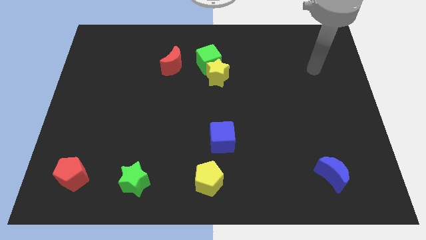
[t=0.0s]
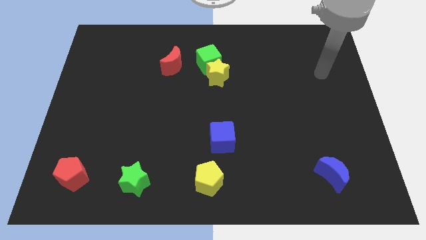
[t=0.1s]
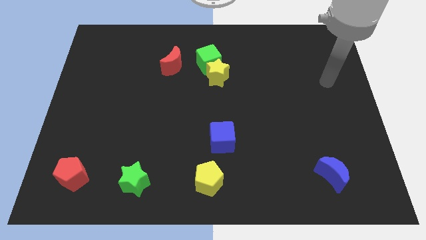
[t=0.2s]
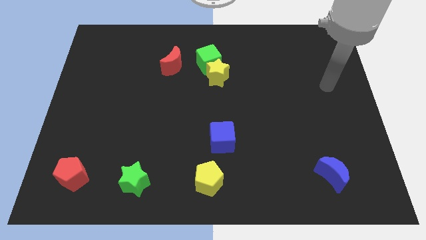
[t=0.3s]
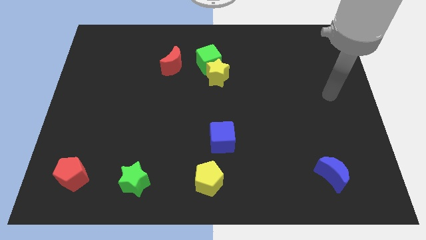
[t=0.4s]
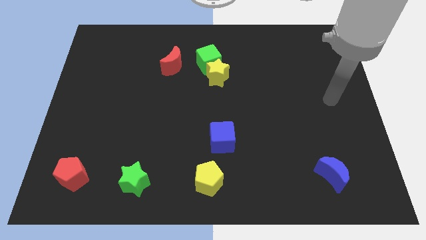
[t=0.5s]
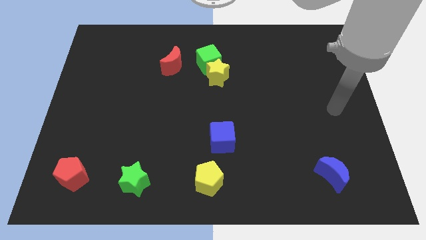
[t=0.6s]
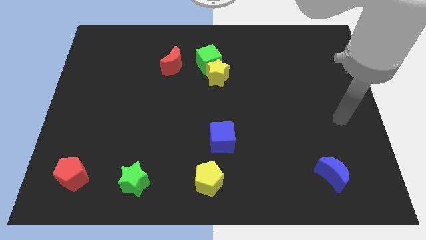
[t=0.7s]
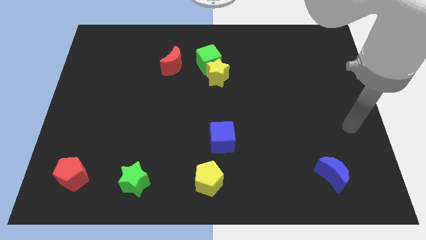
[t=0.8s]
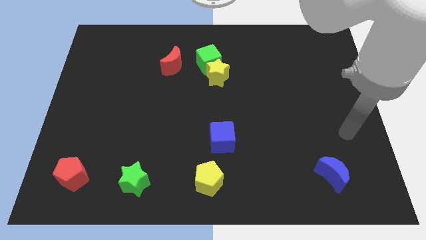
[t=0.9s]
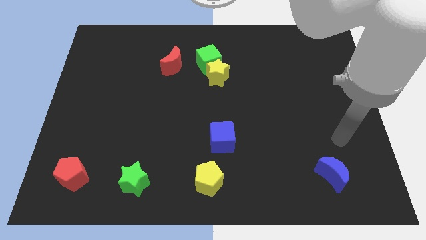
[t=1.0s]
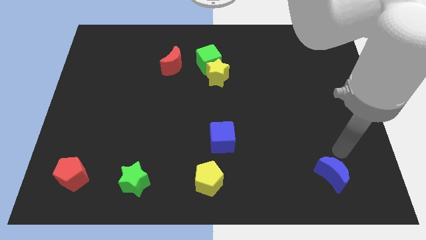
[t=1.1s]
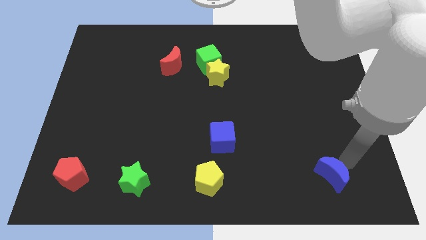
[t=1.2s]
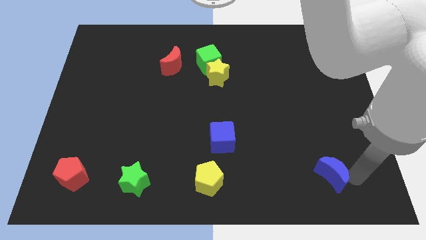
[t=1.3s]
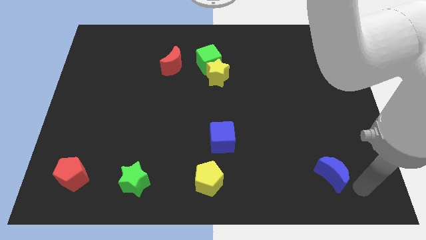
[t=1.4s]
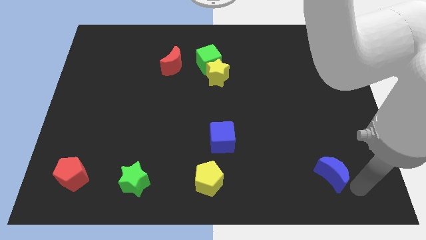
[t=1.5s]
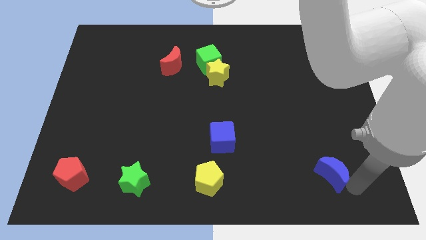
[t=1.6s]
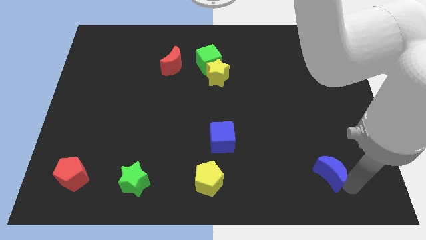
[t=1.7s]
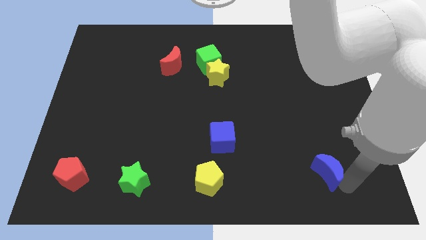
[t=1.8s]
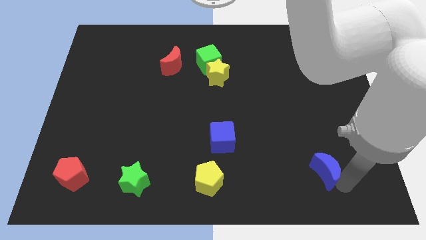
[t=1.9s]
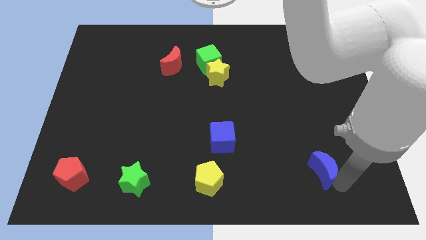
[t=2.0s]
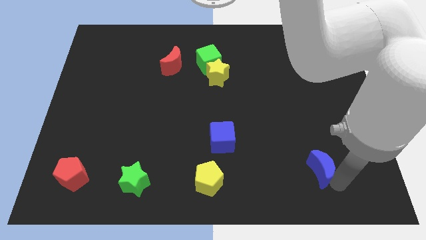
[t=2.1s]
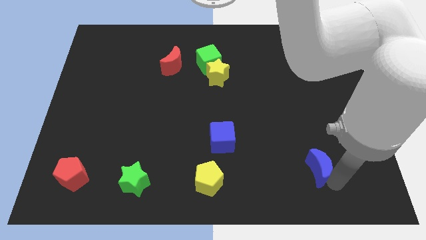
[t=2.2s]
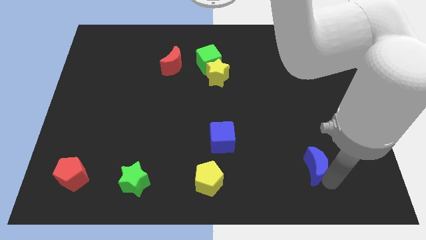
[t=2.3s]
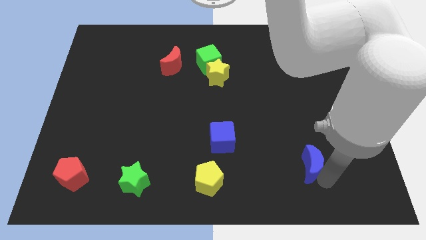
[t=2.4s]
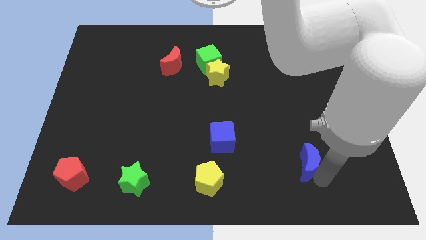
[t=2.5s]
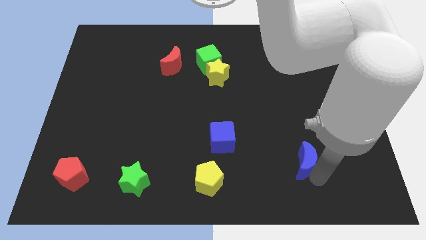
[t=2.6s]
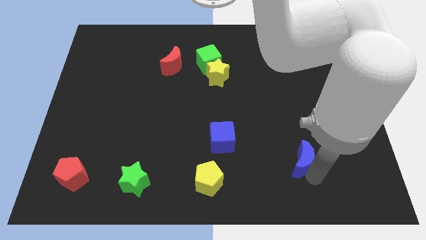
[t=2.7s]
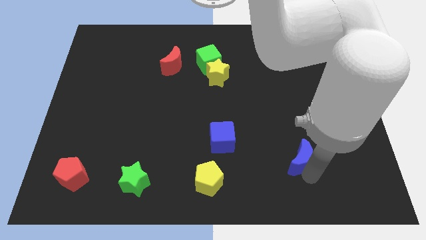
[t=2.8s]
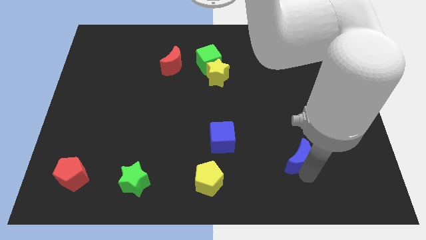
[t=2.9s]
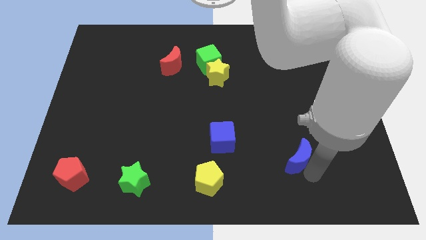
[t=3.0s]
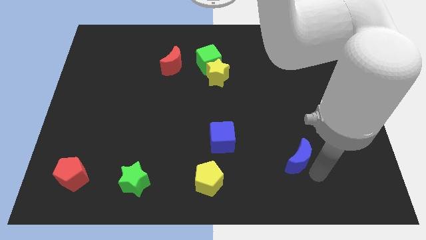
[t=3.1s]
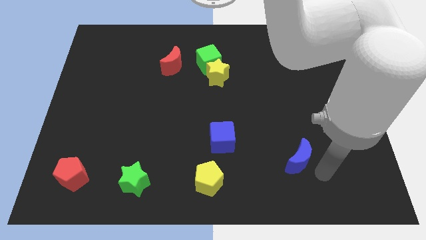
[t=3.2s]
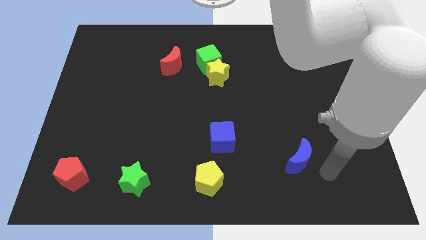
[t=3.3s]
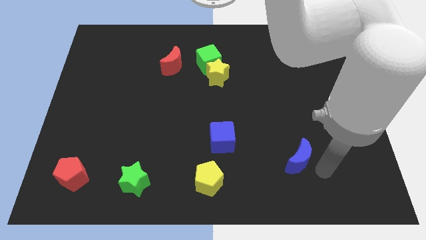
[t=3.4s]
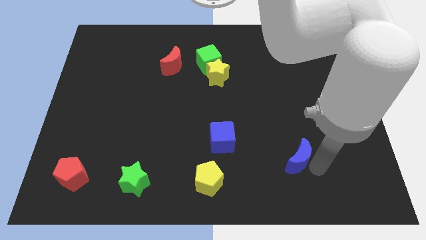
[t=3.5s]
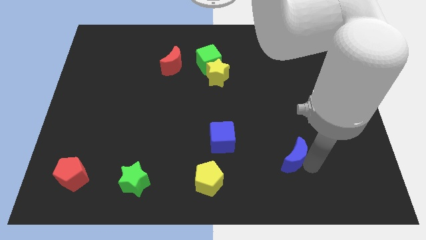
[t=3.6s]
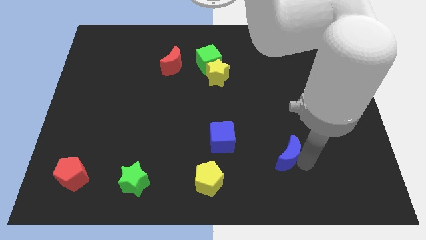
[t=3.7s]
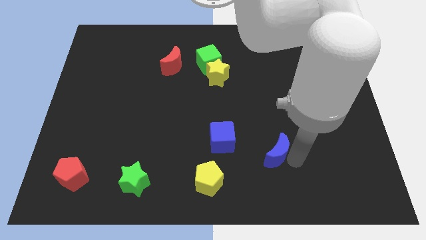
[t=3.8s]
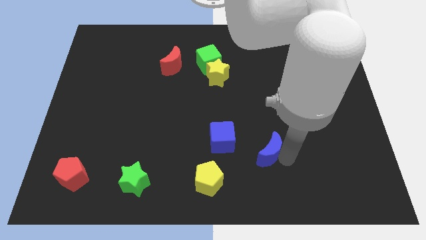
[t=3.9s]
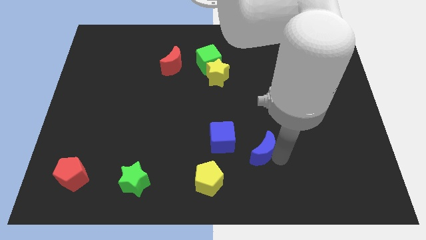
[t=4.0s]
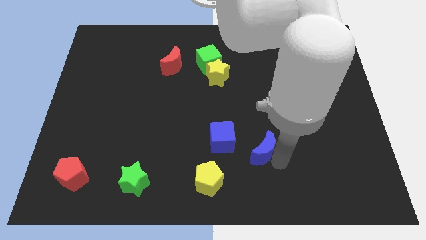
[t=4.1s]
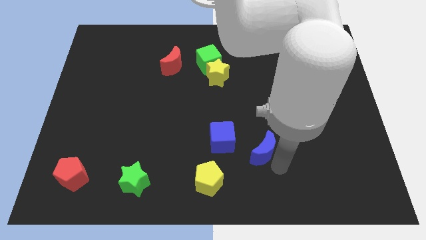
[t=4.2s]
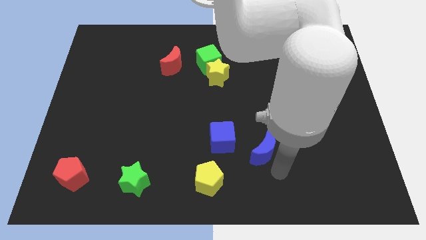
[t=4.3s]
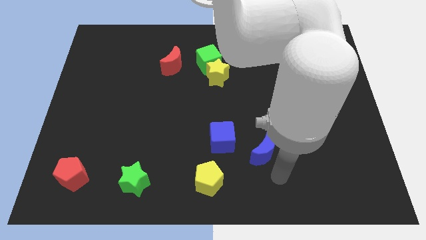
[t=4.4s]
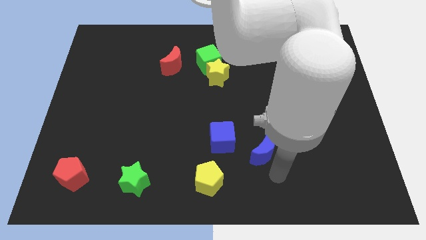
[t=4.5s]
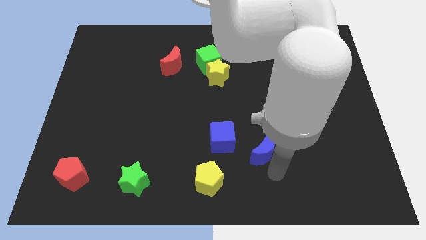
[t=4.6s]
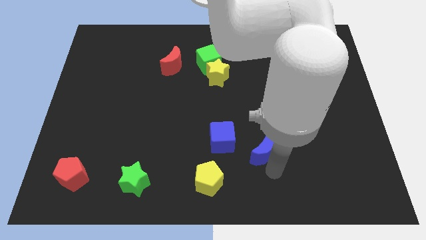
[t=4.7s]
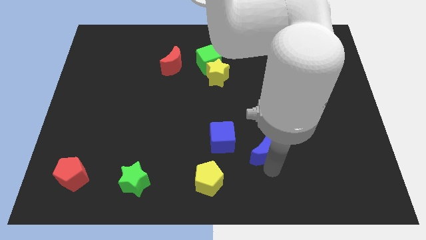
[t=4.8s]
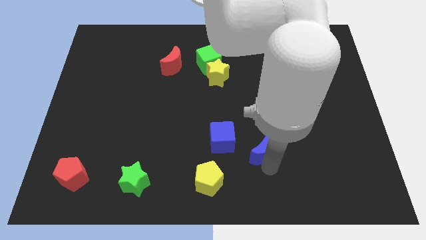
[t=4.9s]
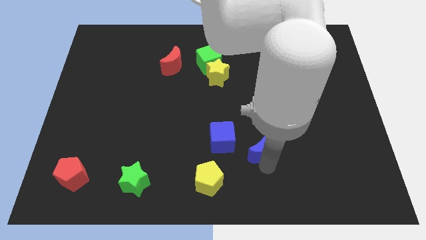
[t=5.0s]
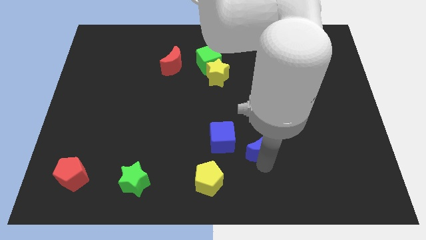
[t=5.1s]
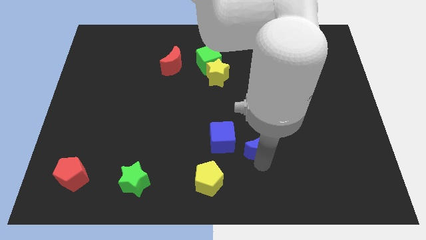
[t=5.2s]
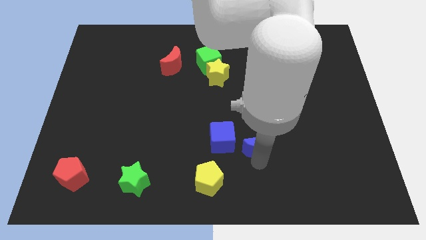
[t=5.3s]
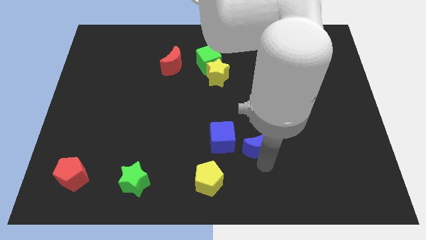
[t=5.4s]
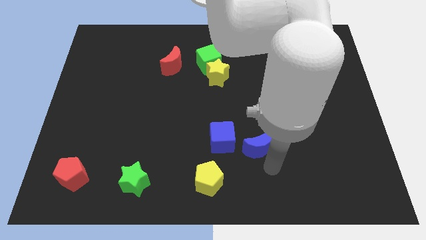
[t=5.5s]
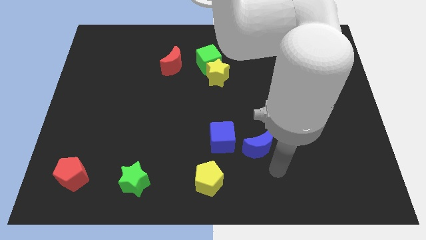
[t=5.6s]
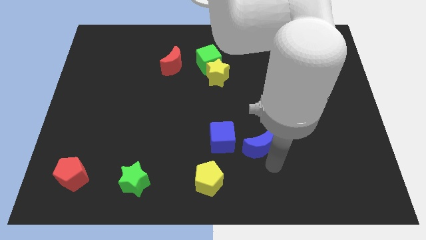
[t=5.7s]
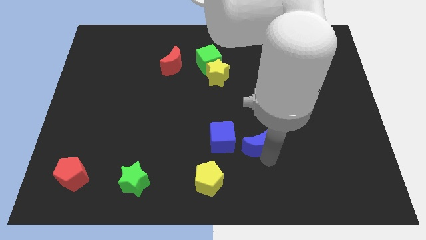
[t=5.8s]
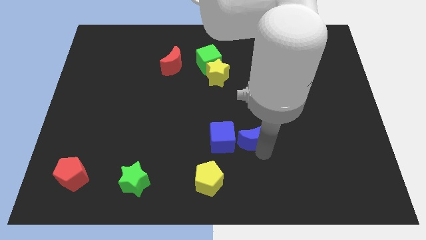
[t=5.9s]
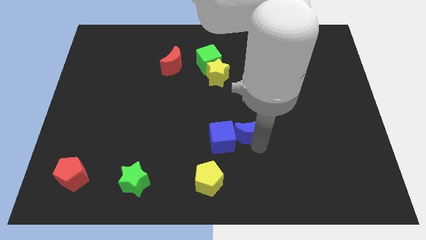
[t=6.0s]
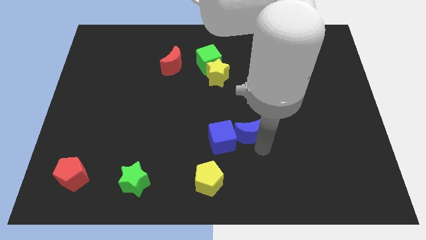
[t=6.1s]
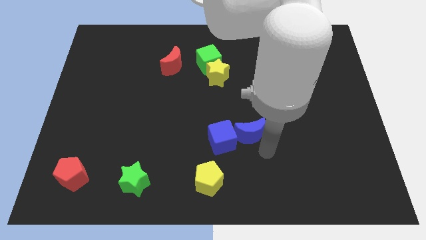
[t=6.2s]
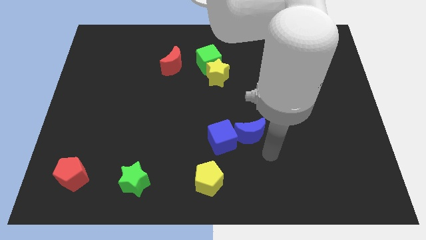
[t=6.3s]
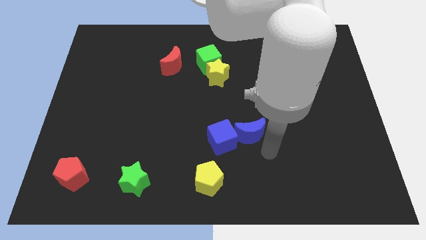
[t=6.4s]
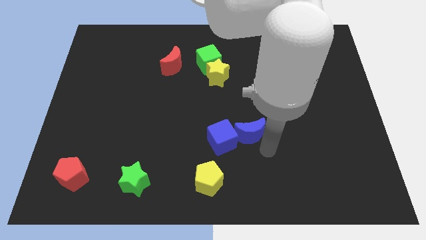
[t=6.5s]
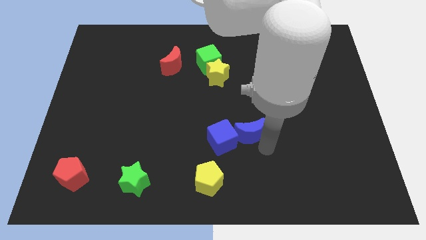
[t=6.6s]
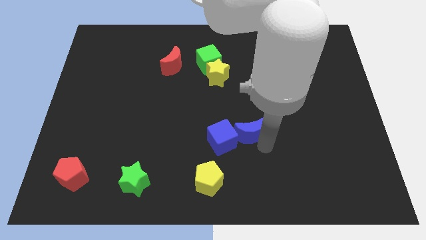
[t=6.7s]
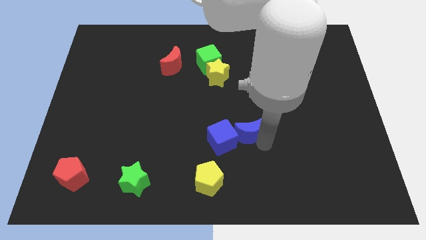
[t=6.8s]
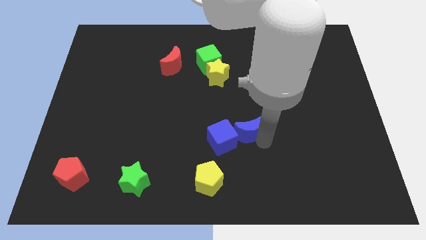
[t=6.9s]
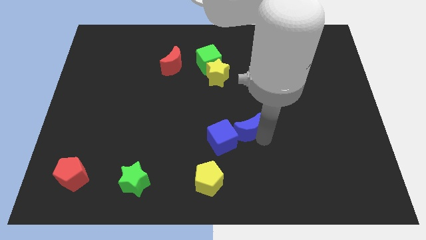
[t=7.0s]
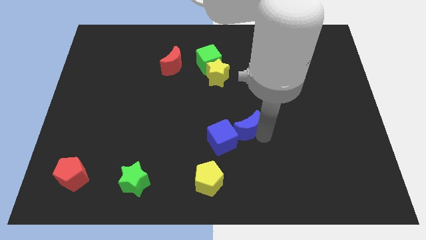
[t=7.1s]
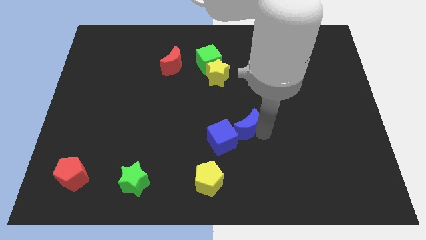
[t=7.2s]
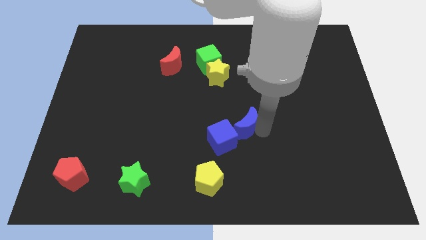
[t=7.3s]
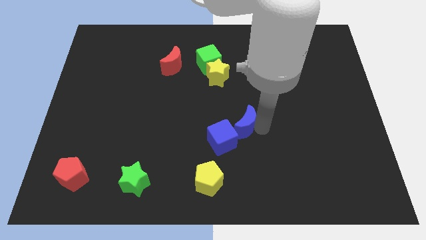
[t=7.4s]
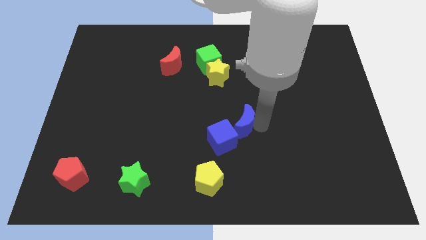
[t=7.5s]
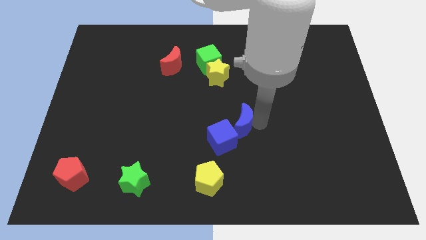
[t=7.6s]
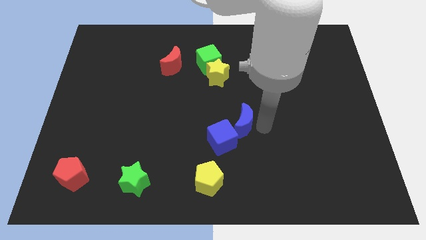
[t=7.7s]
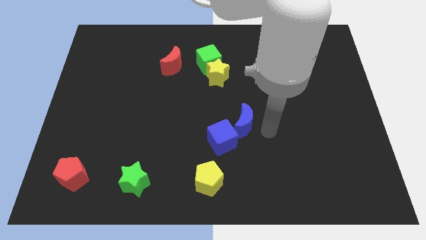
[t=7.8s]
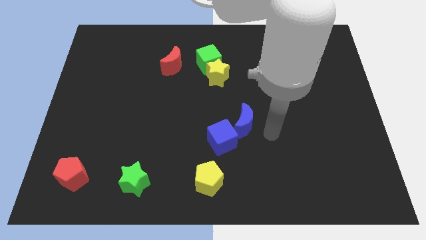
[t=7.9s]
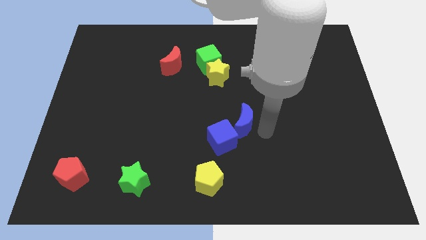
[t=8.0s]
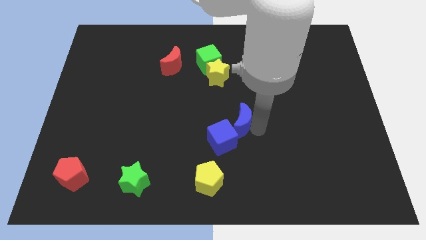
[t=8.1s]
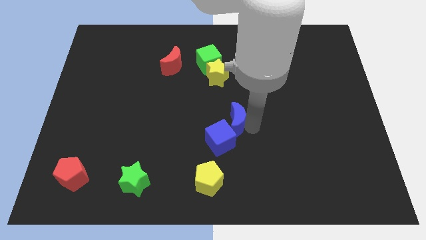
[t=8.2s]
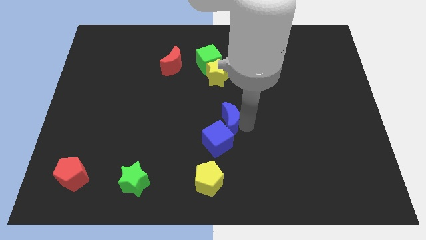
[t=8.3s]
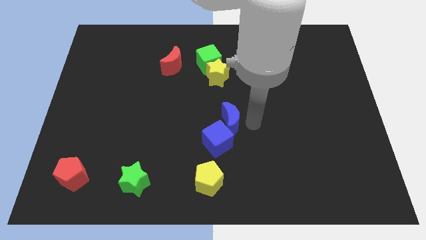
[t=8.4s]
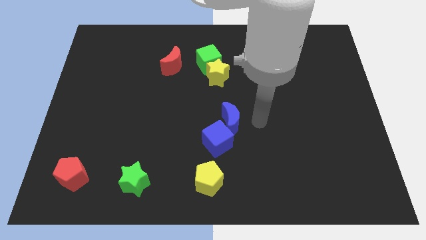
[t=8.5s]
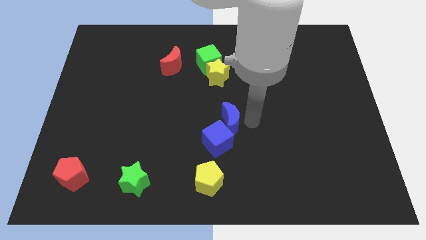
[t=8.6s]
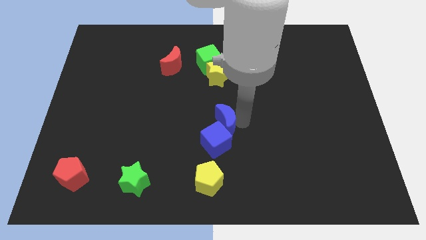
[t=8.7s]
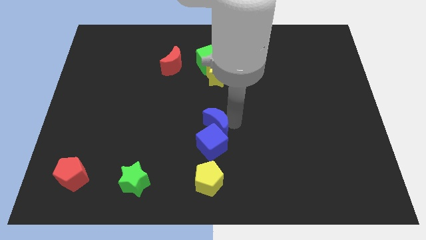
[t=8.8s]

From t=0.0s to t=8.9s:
put the blue moon to the top left of the blue cube
